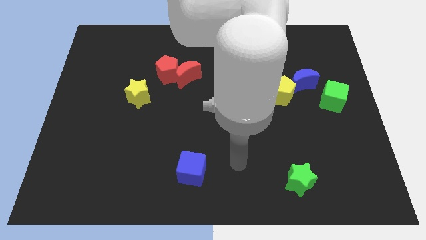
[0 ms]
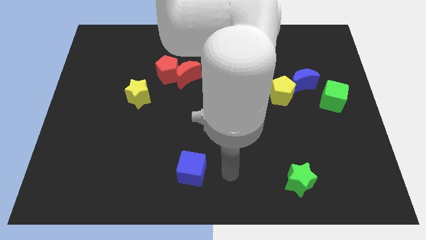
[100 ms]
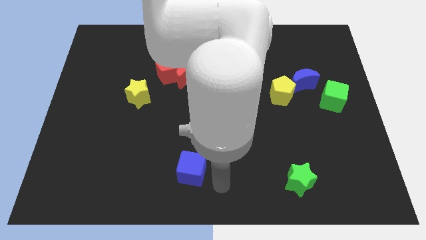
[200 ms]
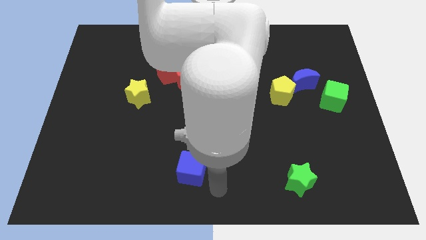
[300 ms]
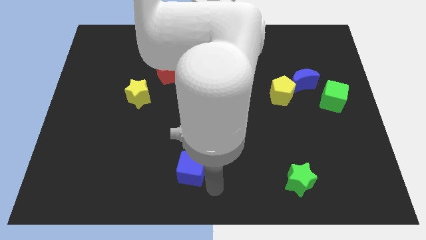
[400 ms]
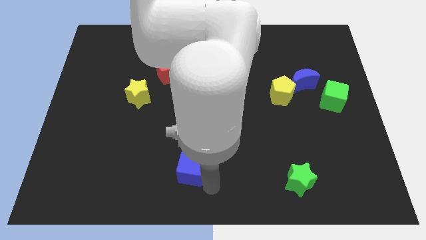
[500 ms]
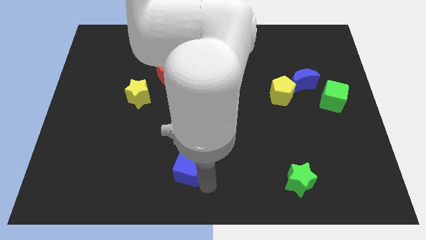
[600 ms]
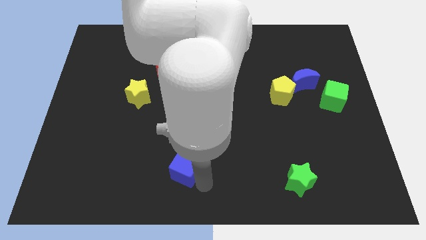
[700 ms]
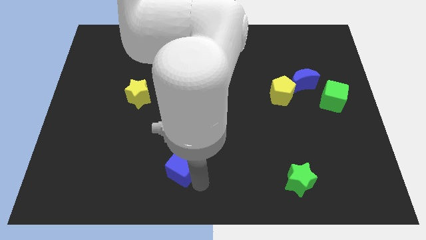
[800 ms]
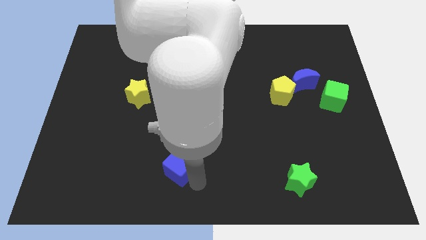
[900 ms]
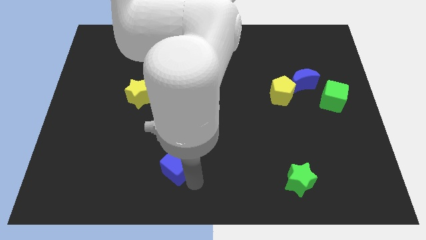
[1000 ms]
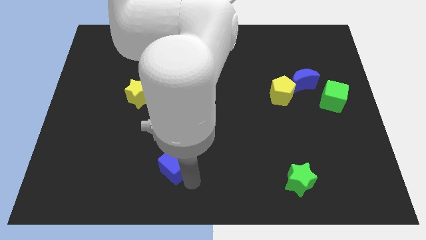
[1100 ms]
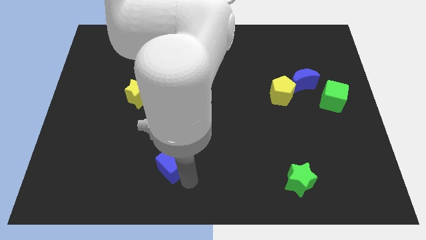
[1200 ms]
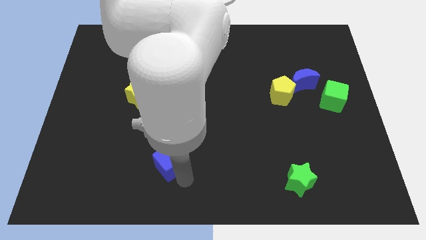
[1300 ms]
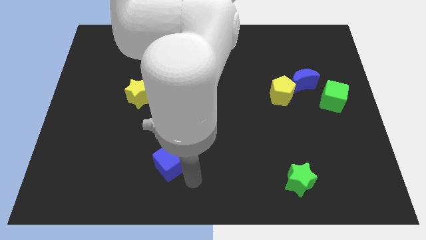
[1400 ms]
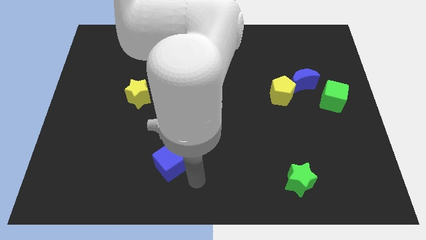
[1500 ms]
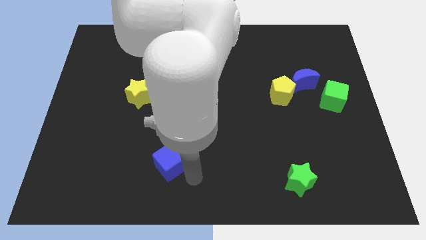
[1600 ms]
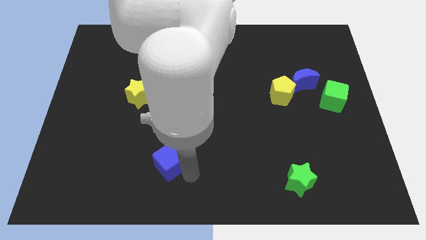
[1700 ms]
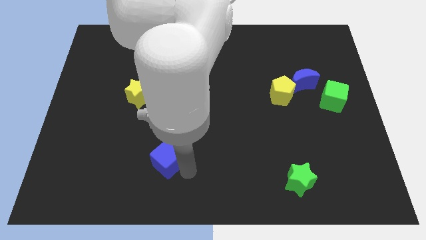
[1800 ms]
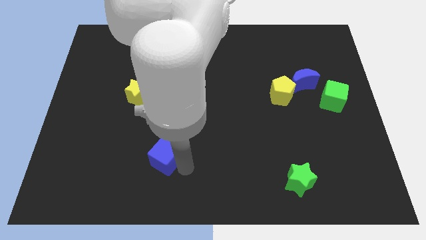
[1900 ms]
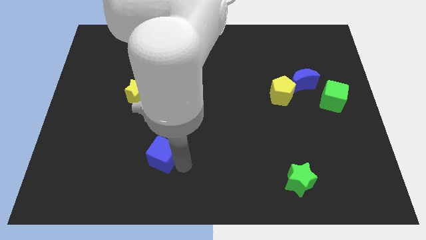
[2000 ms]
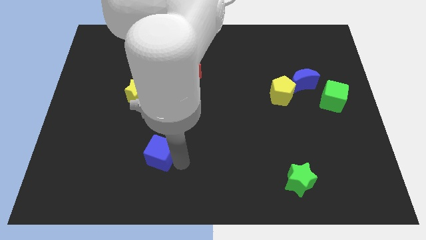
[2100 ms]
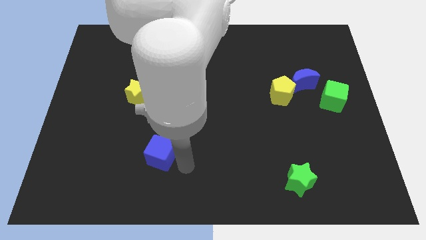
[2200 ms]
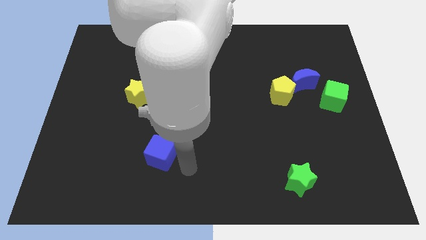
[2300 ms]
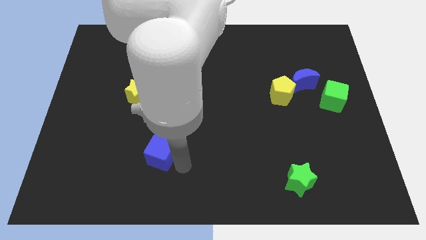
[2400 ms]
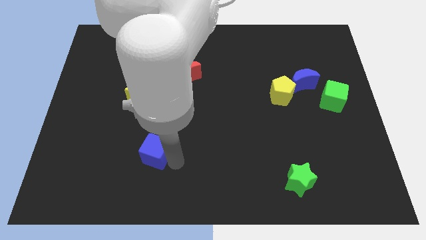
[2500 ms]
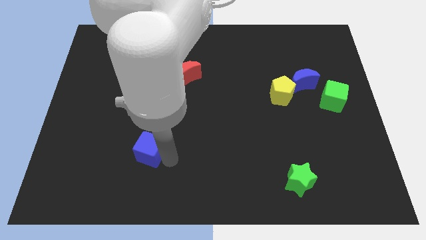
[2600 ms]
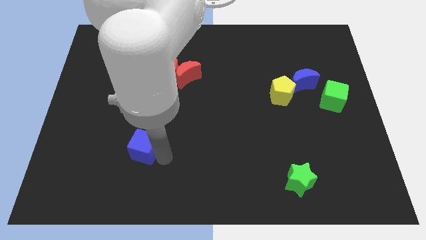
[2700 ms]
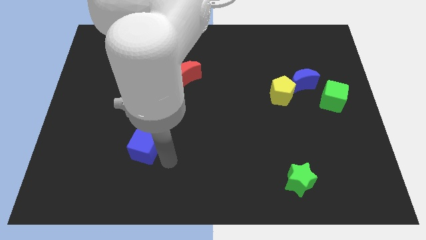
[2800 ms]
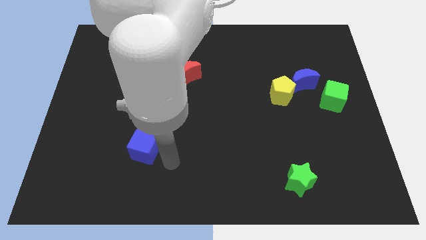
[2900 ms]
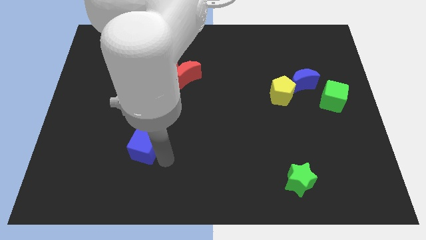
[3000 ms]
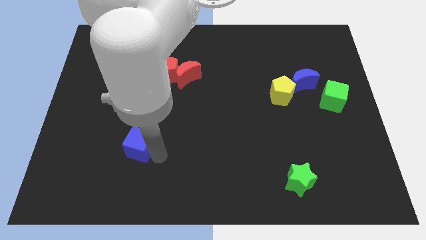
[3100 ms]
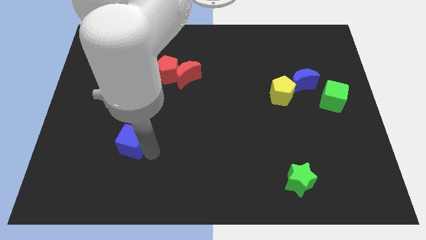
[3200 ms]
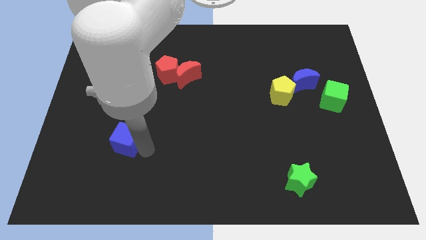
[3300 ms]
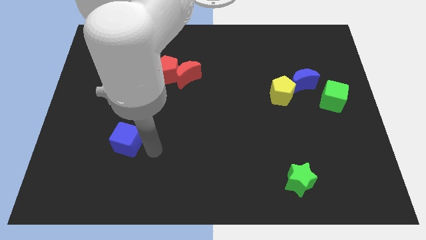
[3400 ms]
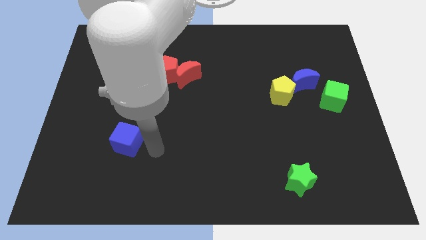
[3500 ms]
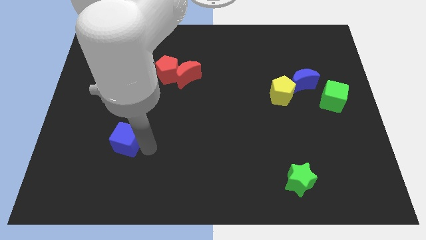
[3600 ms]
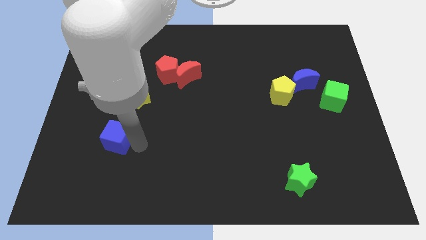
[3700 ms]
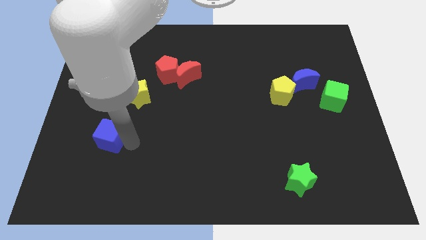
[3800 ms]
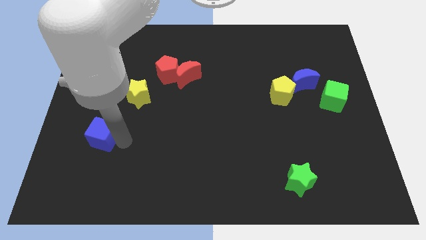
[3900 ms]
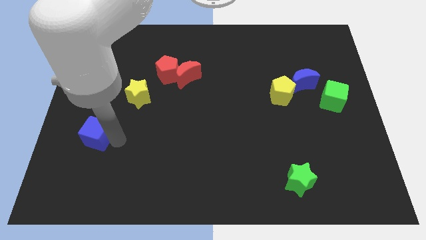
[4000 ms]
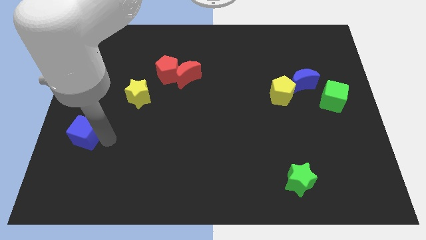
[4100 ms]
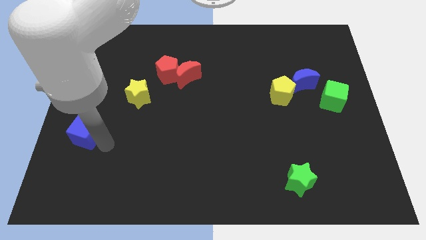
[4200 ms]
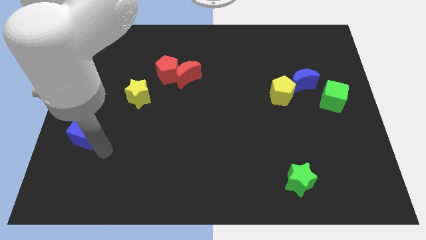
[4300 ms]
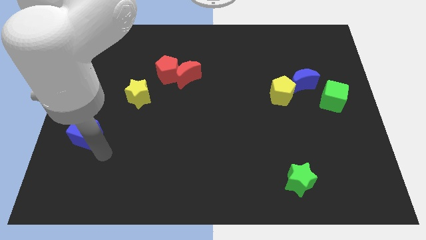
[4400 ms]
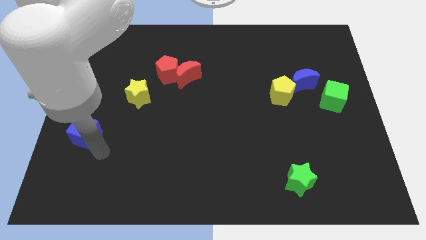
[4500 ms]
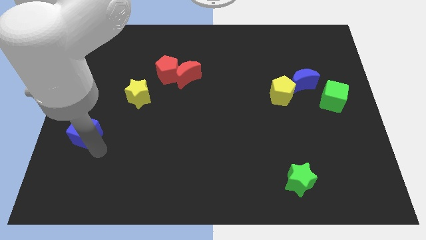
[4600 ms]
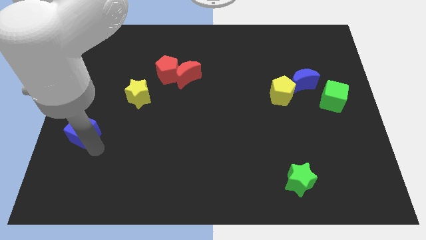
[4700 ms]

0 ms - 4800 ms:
push the blue cube to the center left
